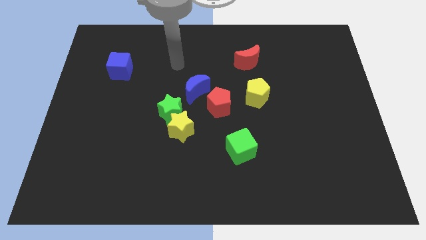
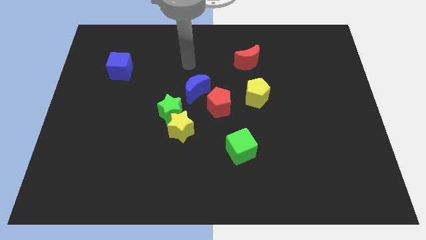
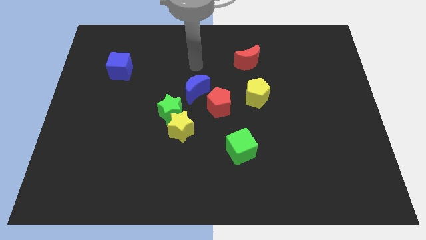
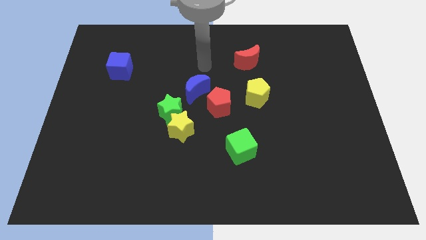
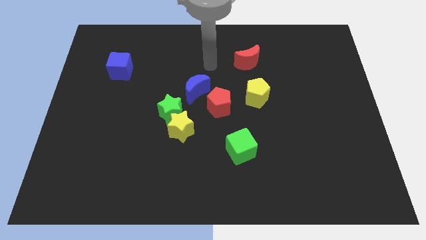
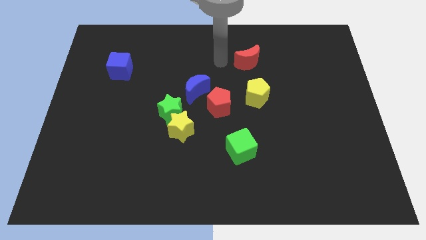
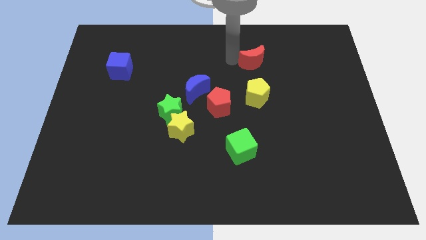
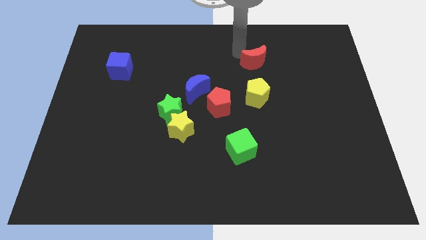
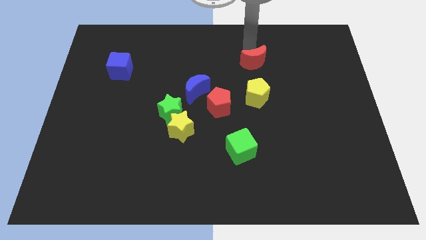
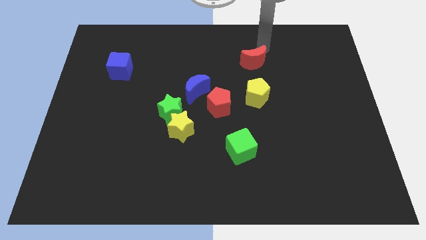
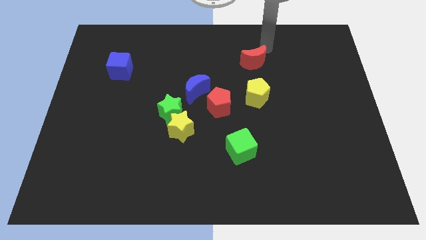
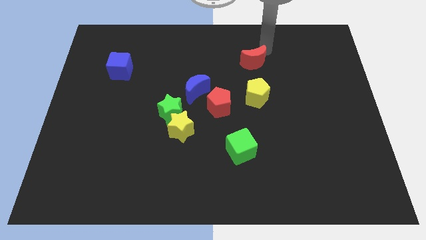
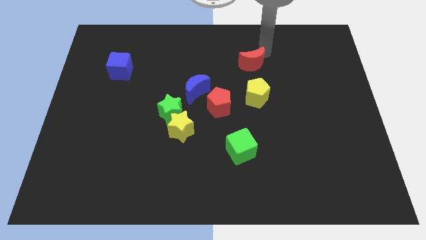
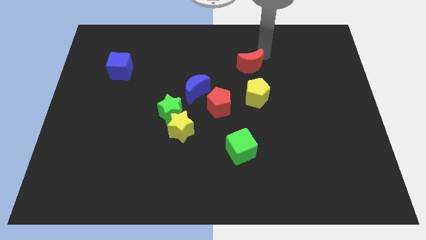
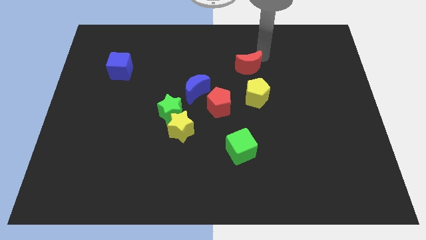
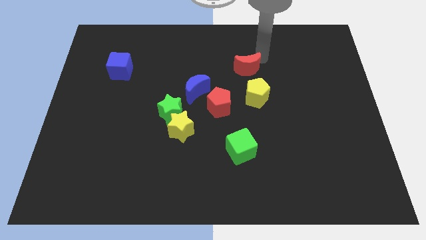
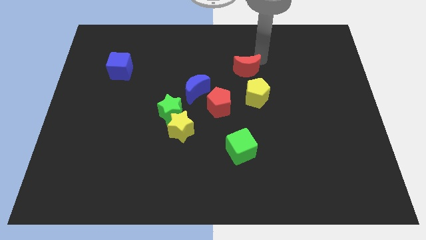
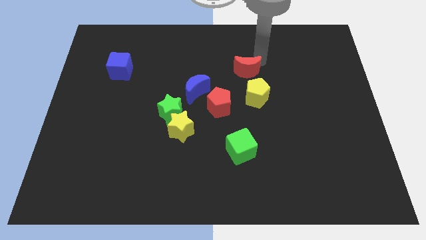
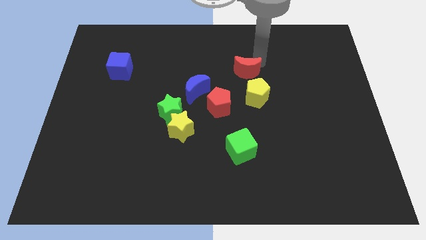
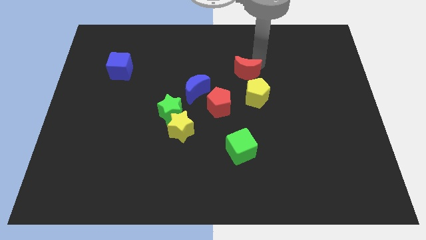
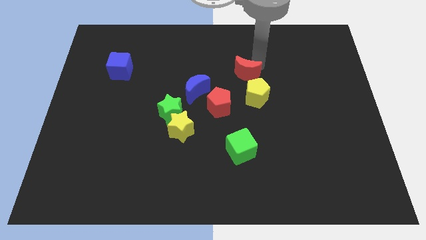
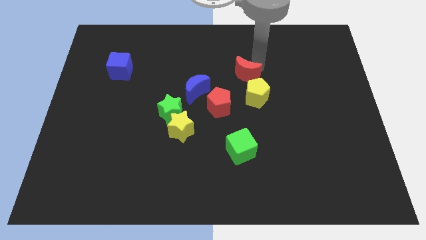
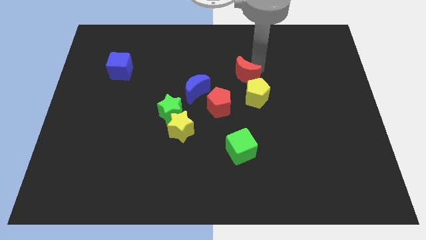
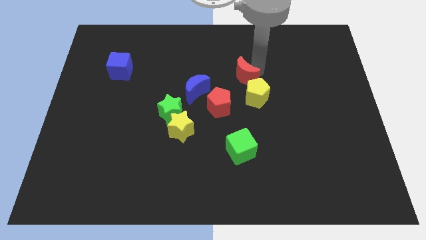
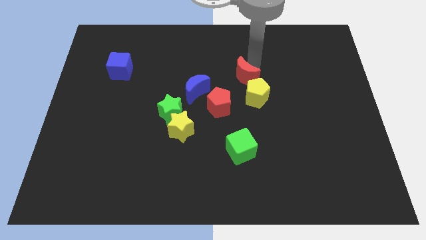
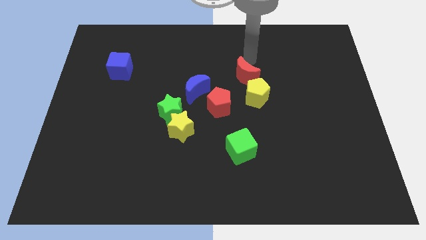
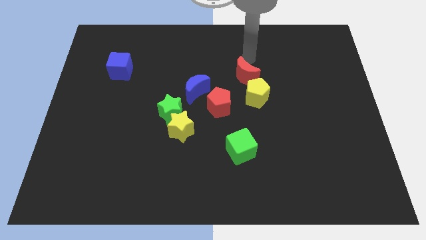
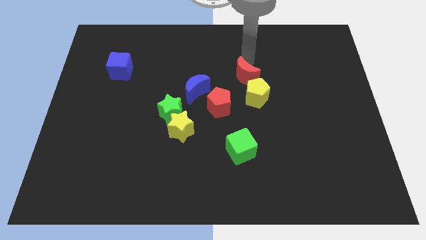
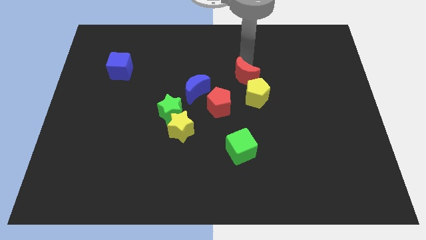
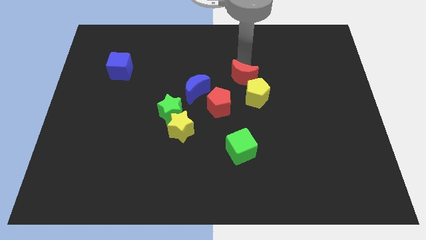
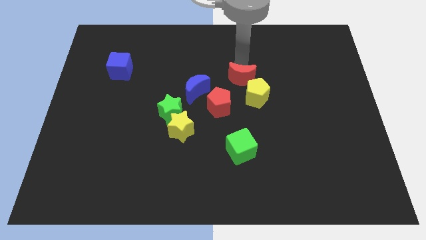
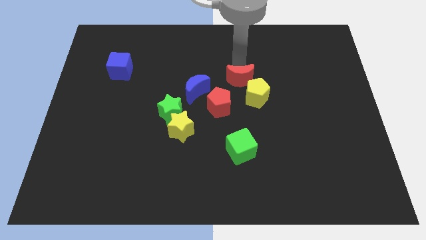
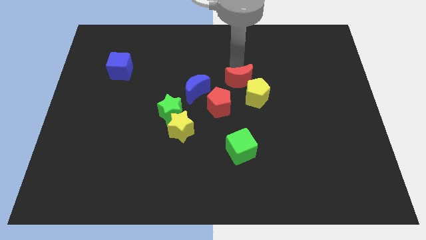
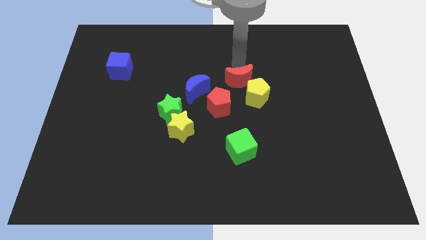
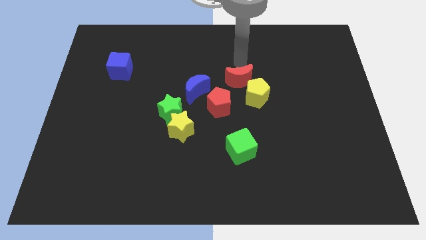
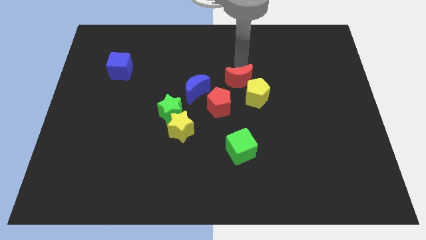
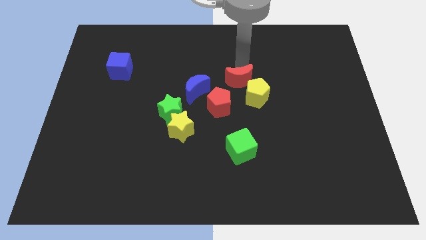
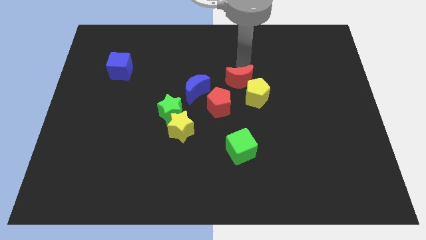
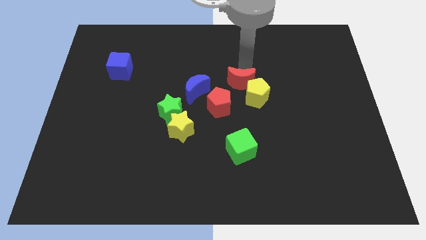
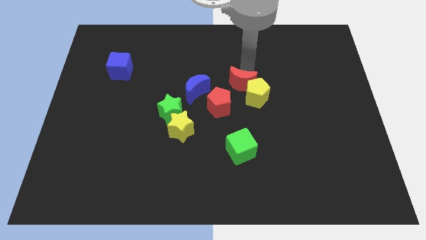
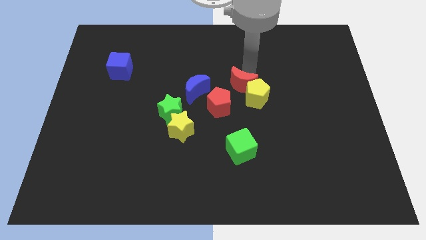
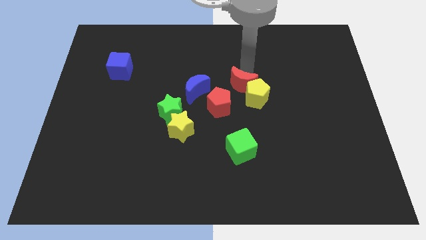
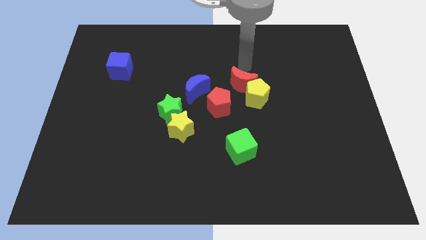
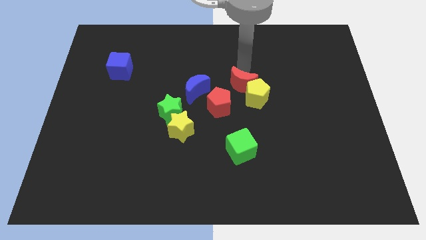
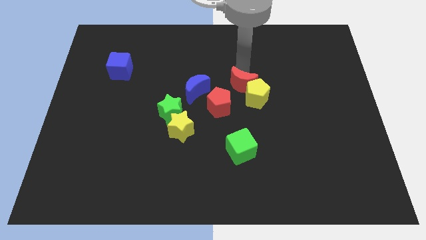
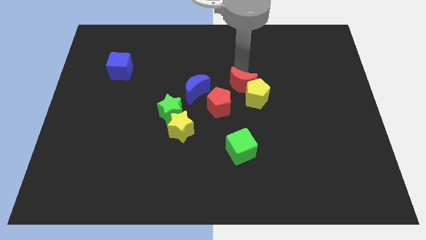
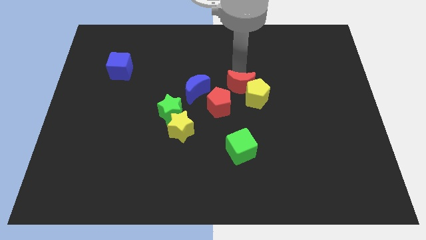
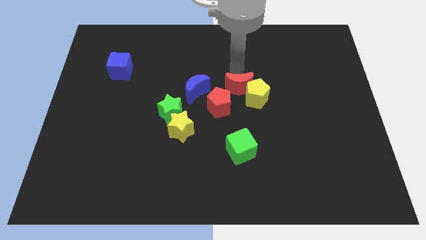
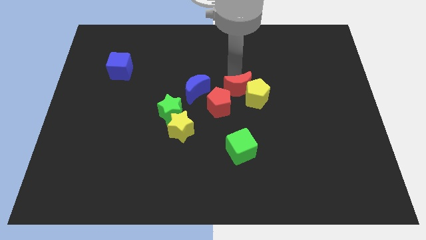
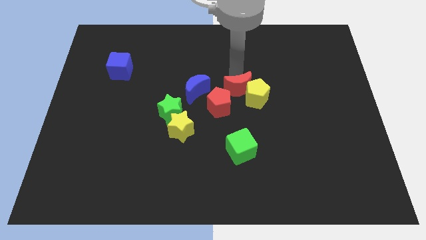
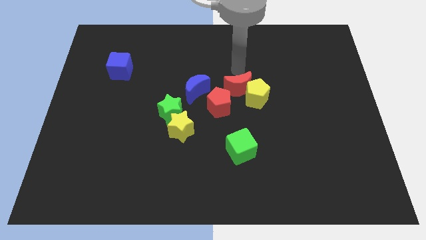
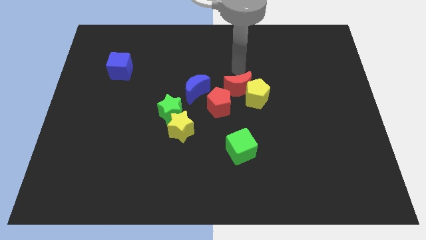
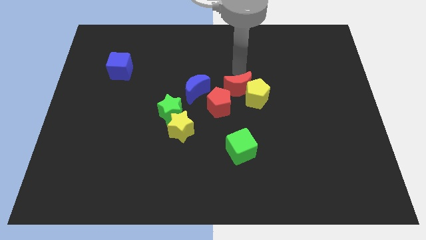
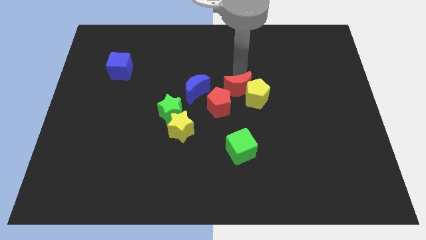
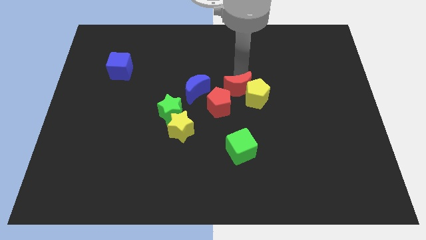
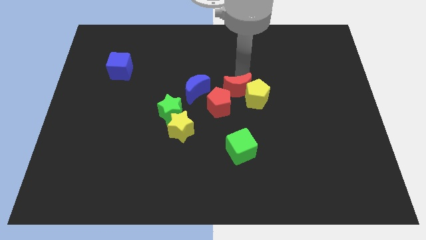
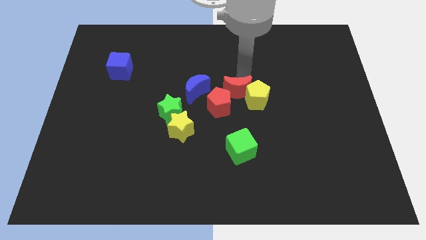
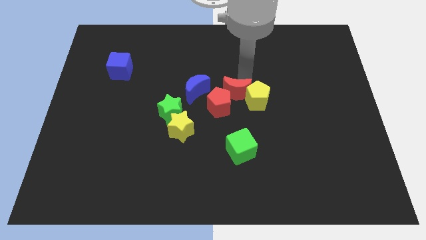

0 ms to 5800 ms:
put the red moon to the top side of the green cube

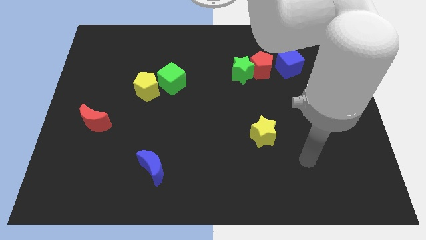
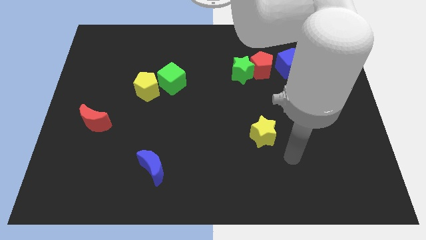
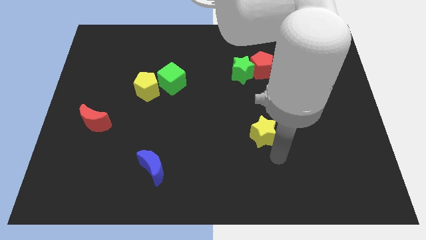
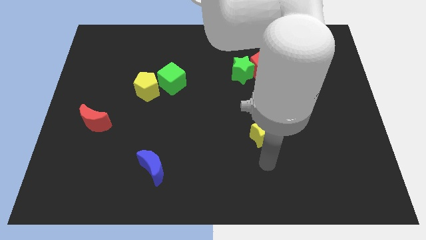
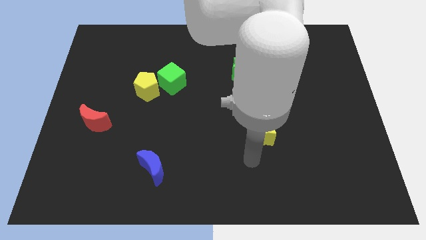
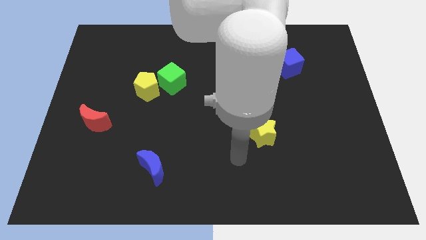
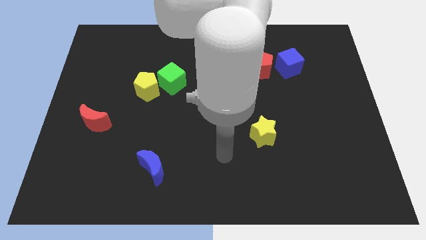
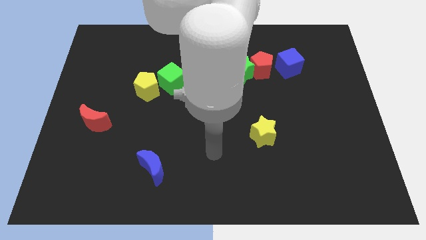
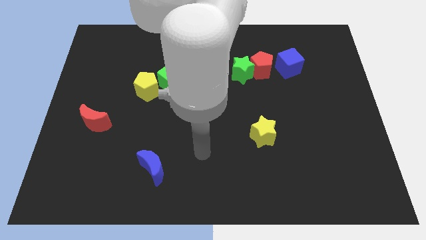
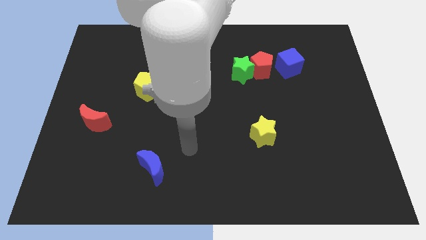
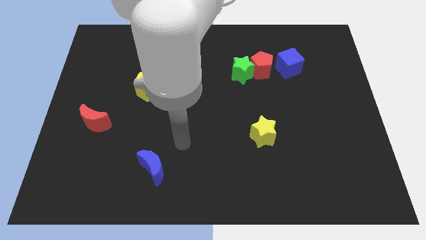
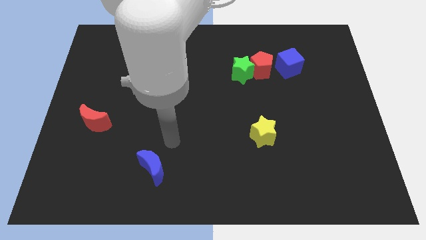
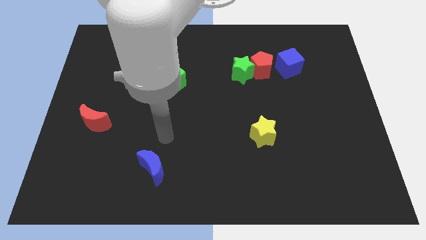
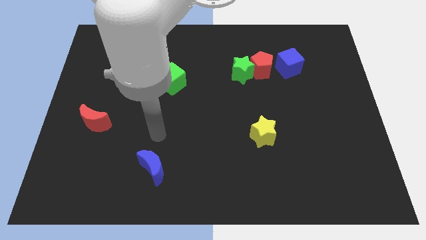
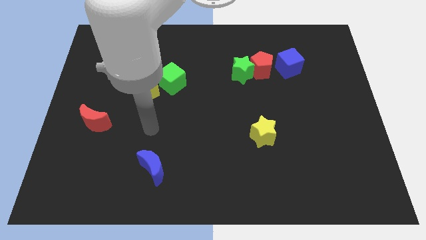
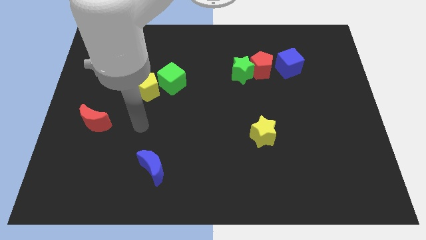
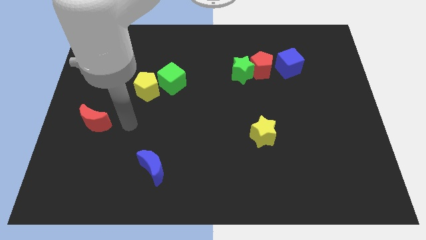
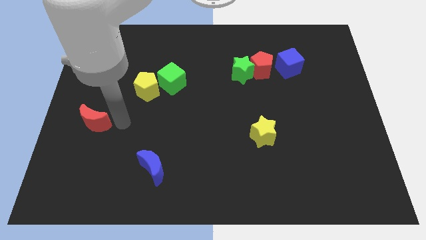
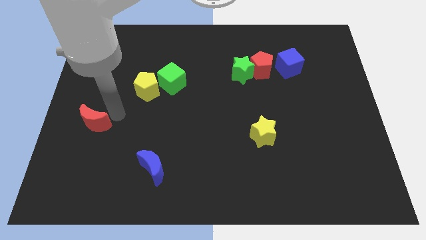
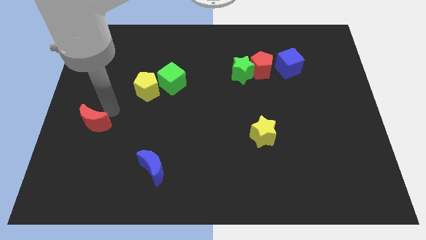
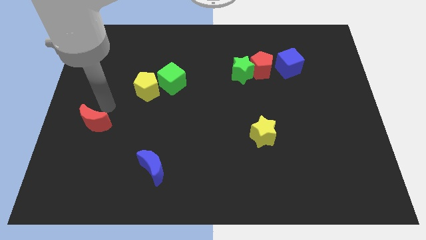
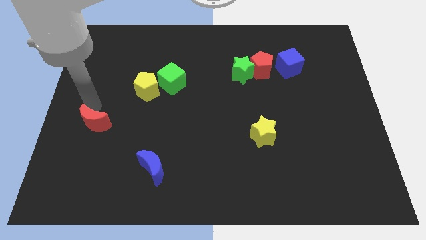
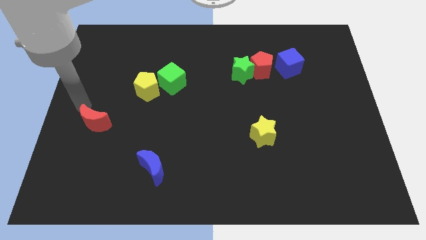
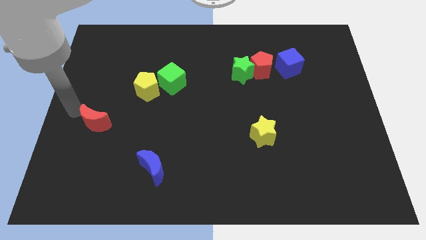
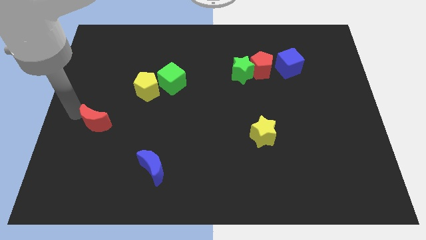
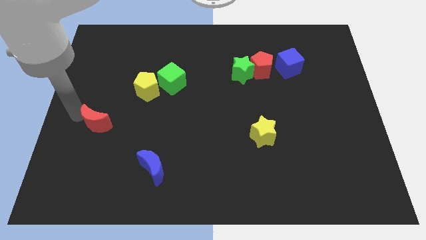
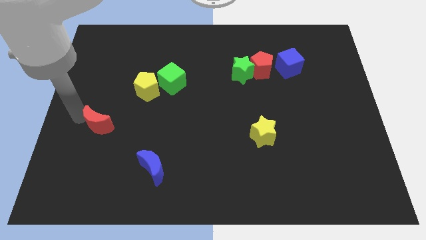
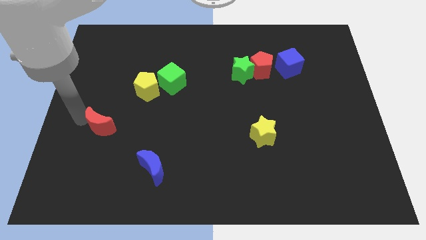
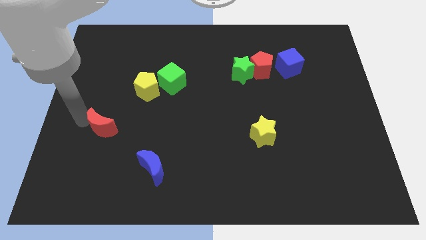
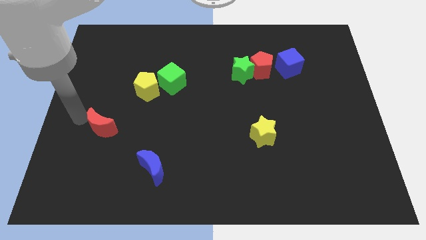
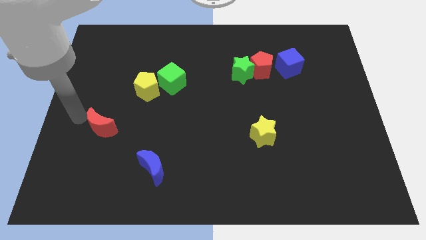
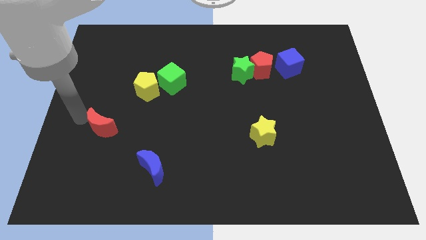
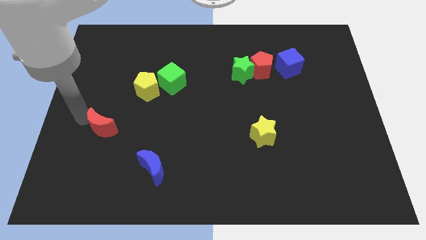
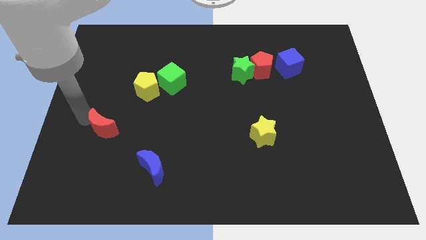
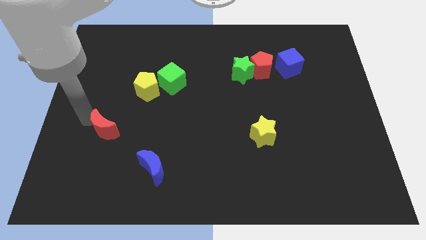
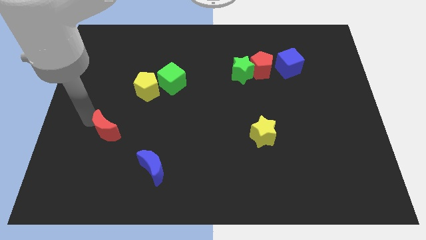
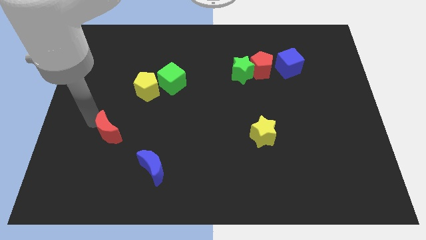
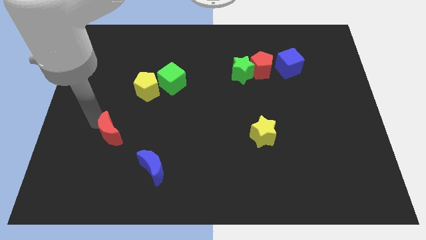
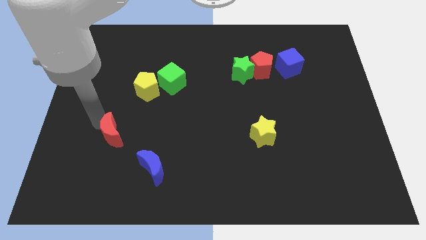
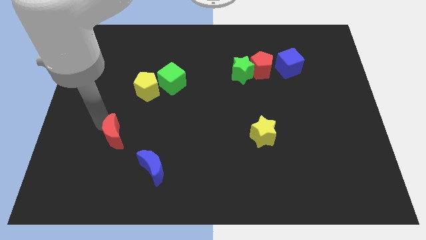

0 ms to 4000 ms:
move the red moon diagonally up and to the left of the blue moon
